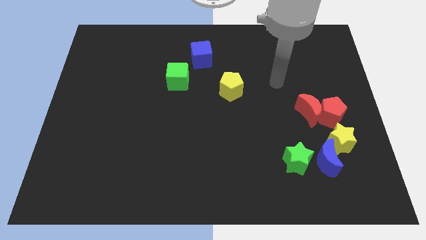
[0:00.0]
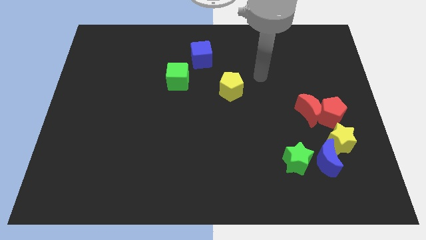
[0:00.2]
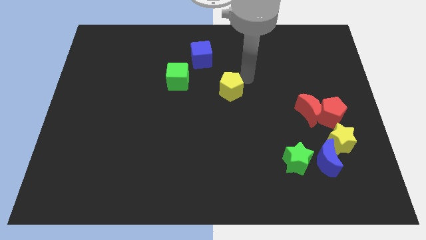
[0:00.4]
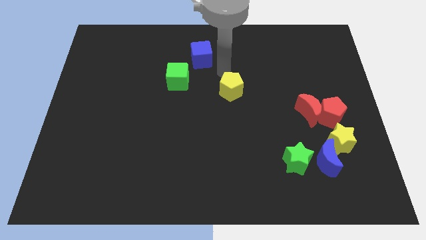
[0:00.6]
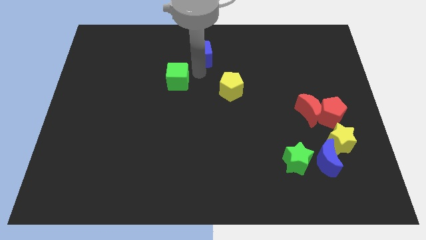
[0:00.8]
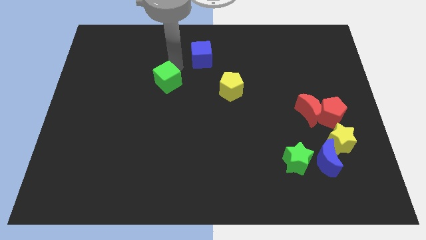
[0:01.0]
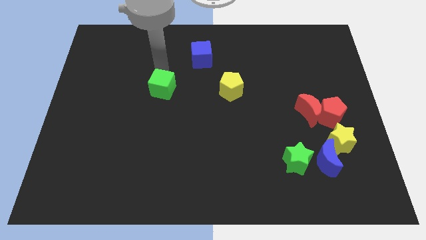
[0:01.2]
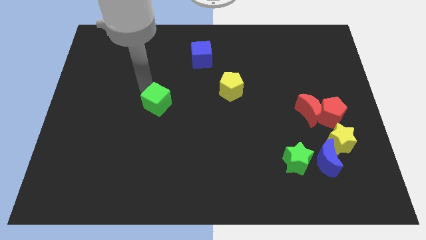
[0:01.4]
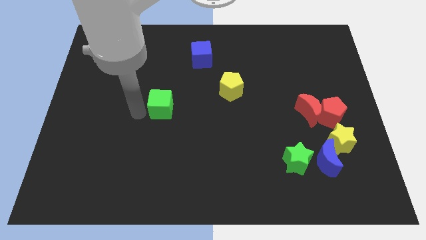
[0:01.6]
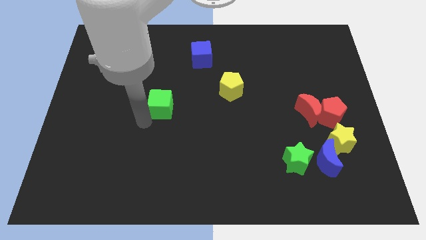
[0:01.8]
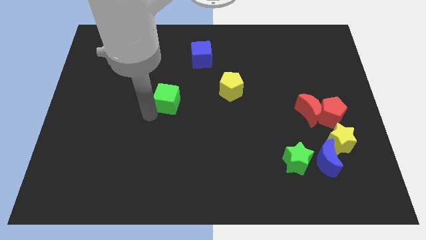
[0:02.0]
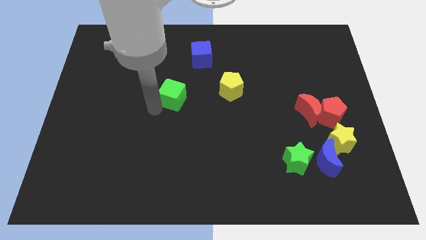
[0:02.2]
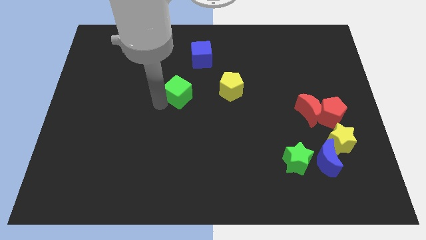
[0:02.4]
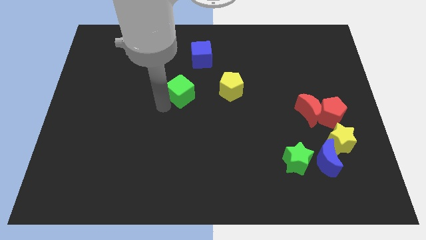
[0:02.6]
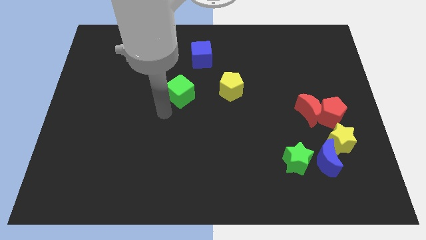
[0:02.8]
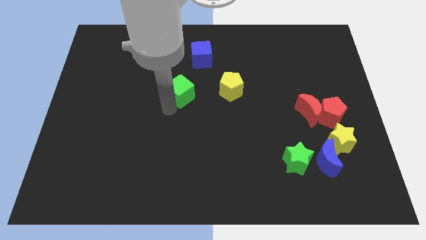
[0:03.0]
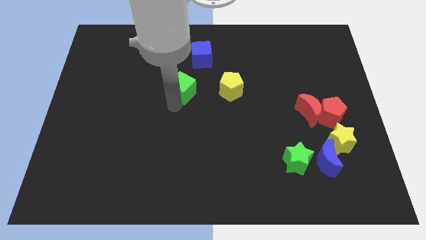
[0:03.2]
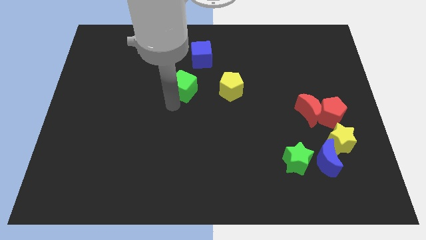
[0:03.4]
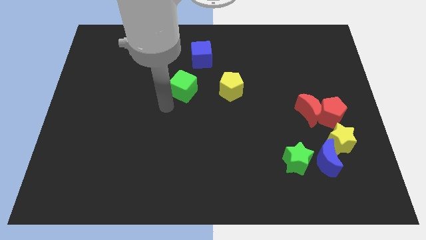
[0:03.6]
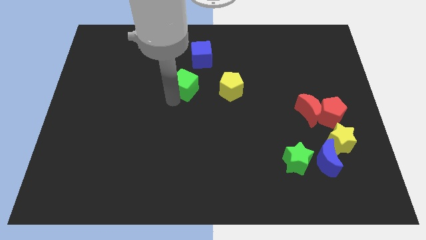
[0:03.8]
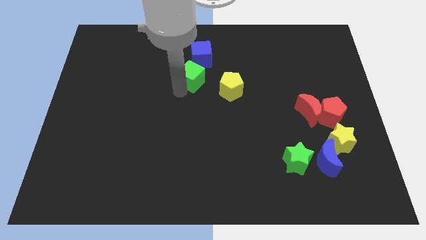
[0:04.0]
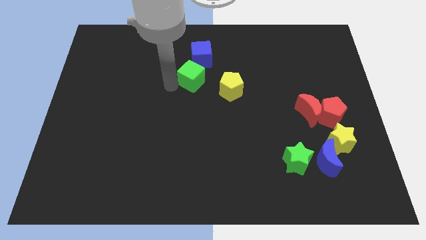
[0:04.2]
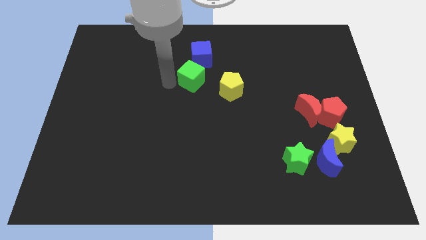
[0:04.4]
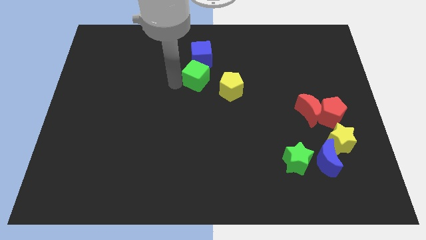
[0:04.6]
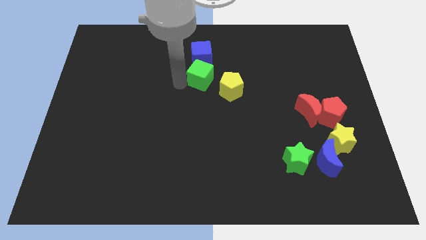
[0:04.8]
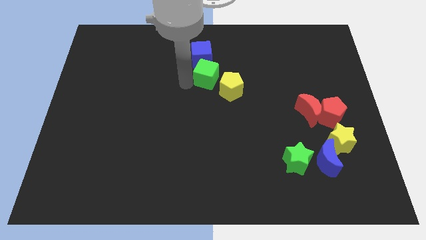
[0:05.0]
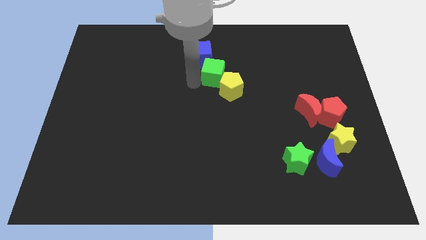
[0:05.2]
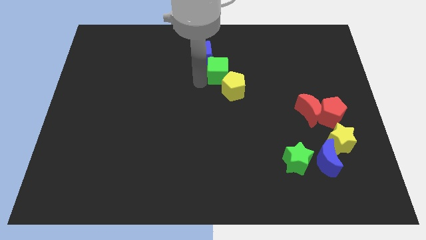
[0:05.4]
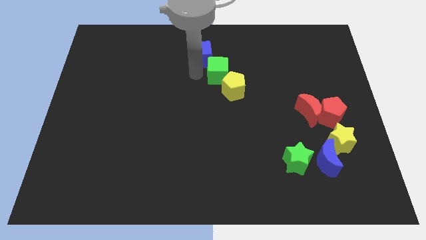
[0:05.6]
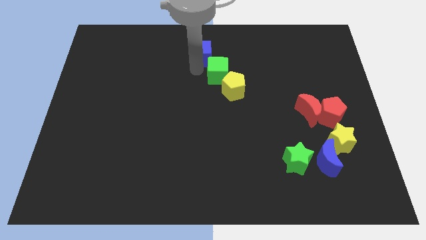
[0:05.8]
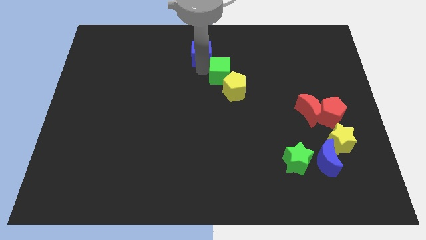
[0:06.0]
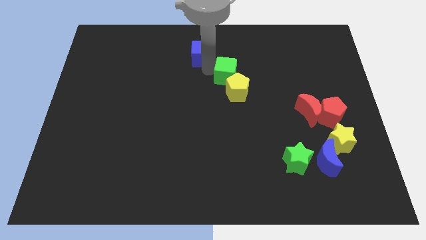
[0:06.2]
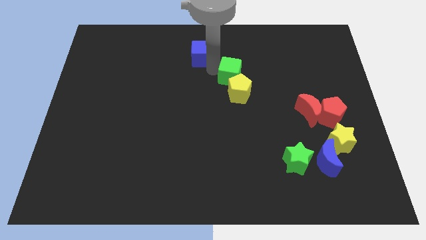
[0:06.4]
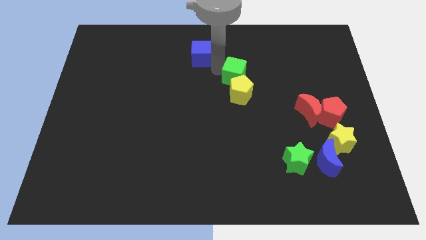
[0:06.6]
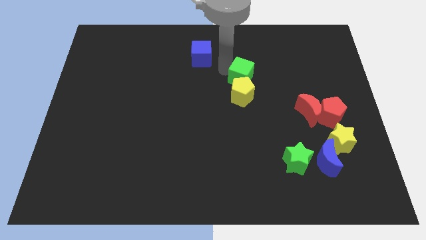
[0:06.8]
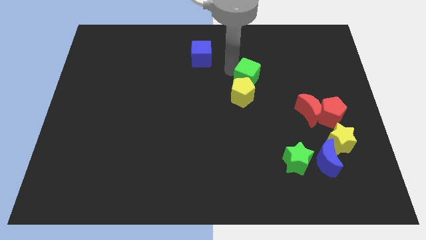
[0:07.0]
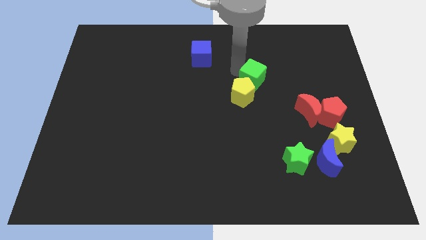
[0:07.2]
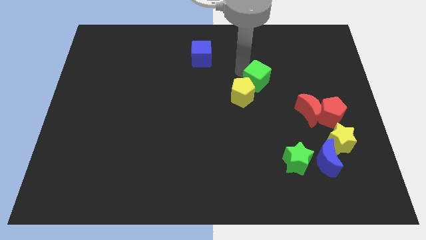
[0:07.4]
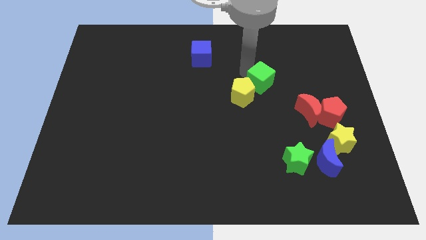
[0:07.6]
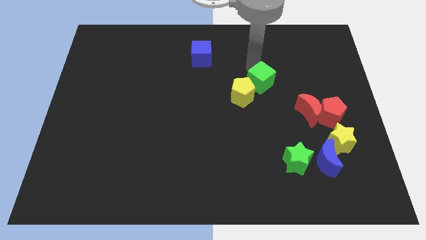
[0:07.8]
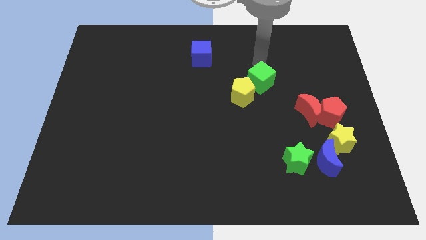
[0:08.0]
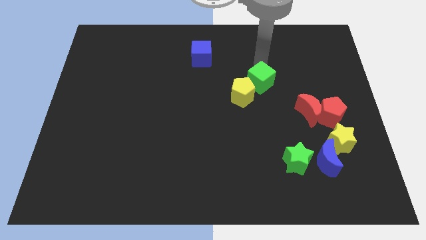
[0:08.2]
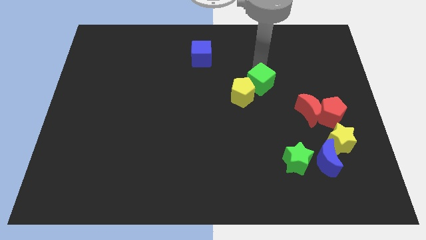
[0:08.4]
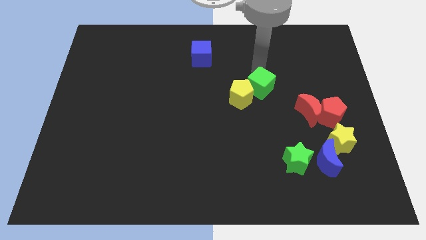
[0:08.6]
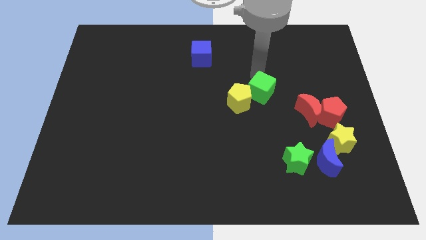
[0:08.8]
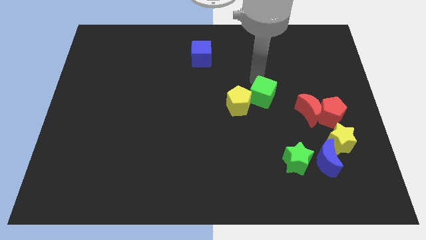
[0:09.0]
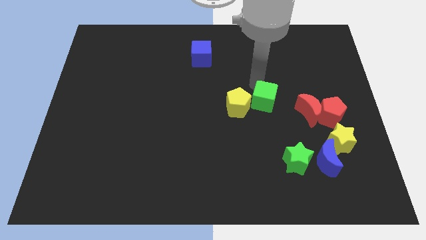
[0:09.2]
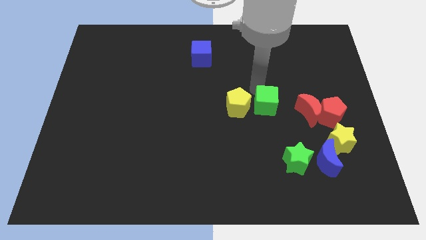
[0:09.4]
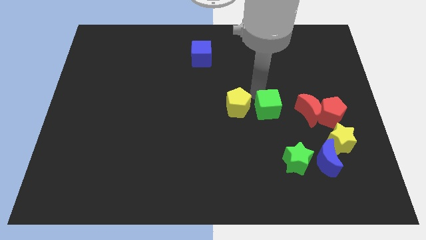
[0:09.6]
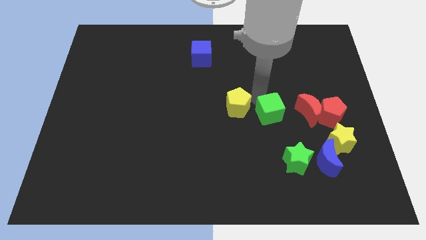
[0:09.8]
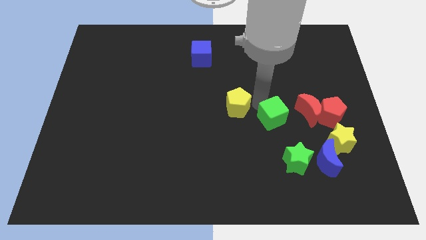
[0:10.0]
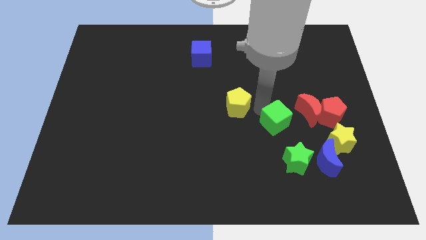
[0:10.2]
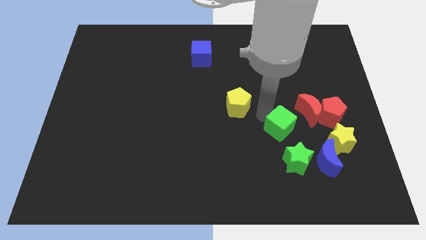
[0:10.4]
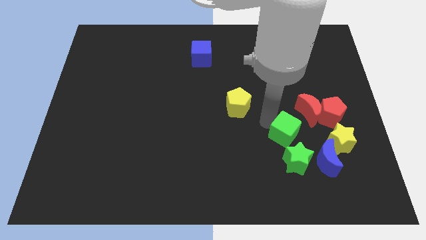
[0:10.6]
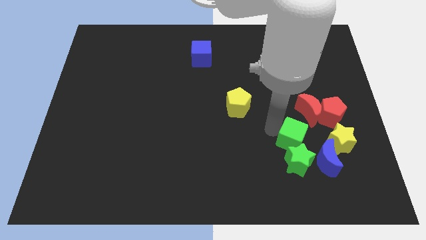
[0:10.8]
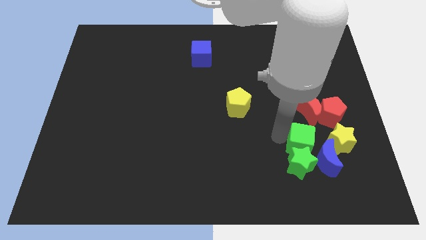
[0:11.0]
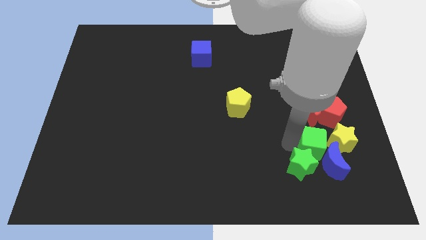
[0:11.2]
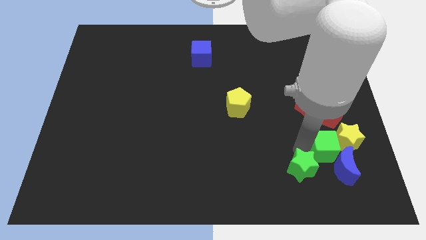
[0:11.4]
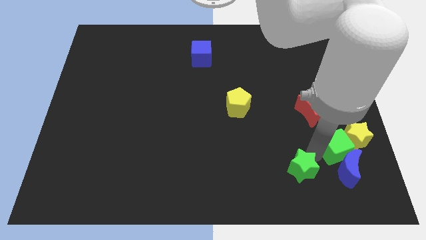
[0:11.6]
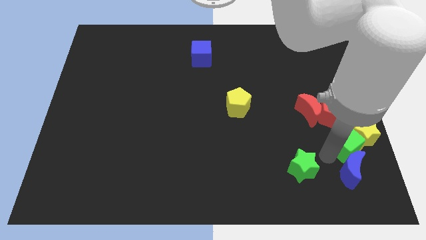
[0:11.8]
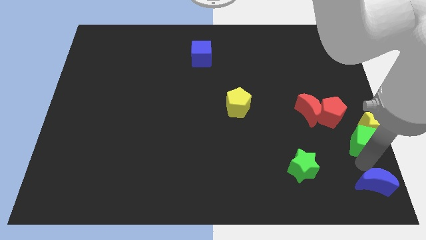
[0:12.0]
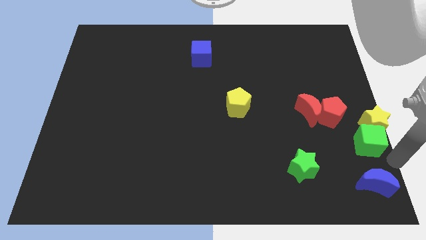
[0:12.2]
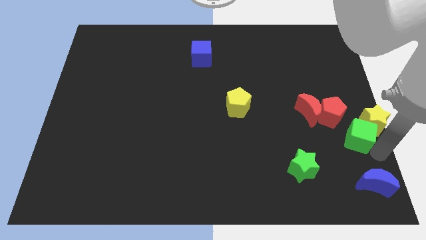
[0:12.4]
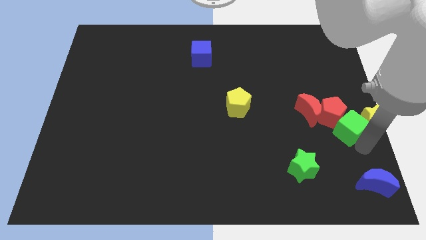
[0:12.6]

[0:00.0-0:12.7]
slide the green cube towards the red pentagon

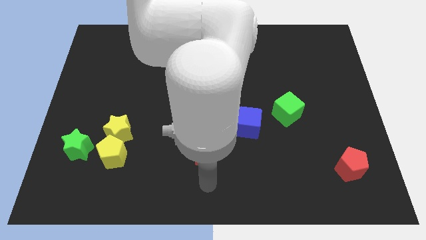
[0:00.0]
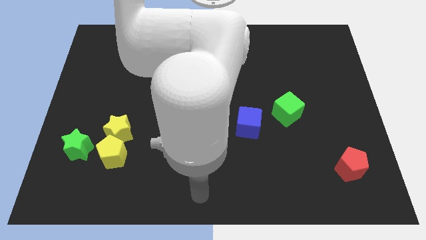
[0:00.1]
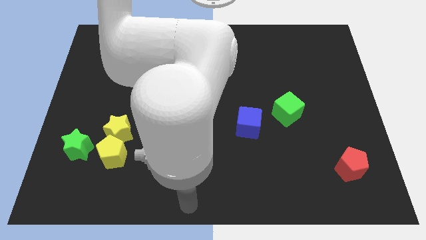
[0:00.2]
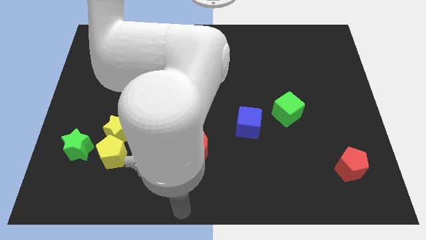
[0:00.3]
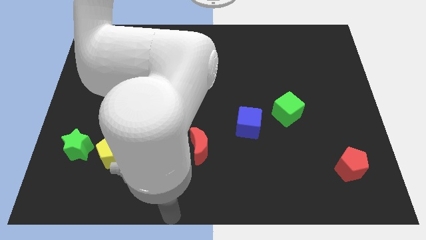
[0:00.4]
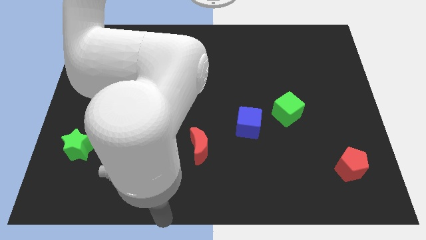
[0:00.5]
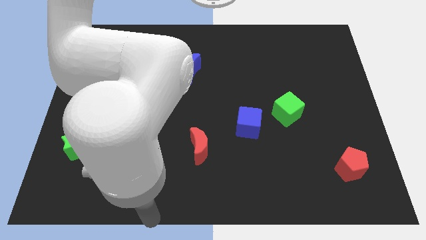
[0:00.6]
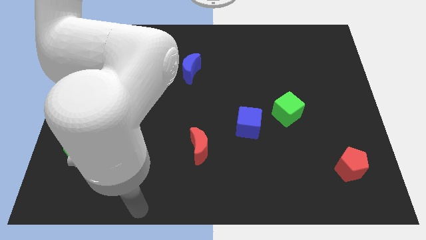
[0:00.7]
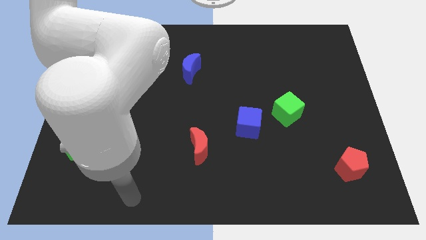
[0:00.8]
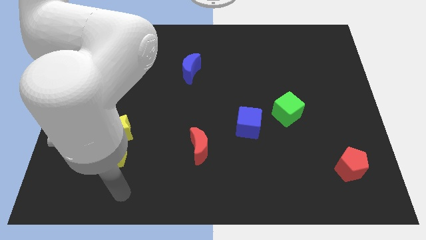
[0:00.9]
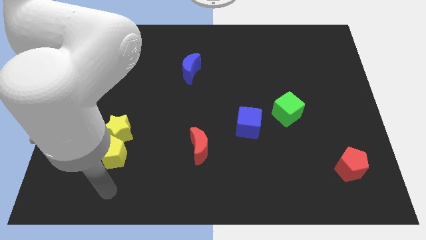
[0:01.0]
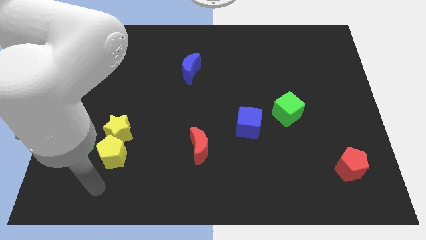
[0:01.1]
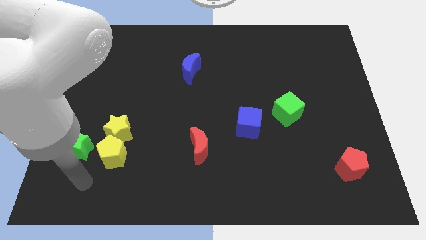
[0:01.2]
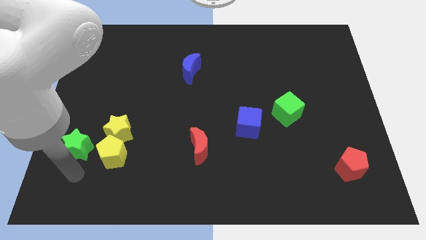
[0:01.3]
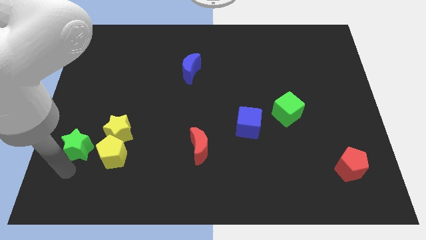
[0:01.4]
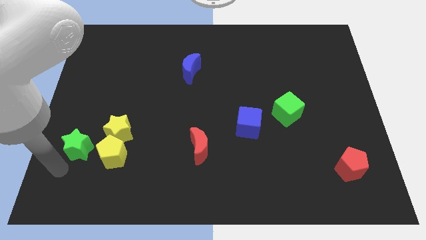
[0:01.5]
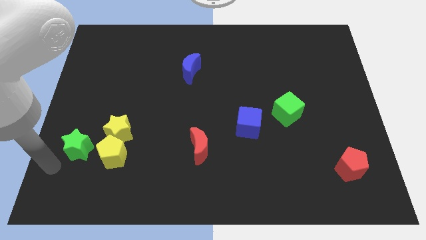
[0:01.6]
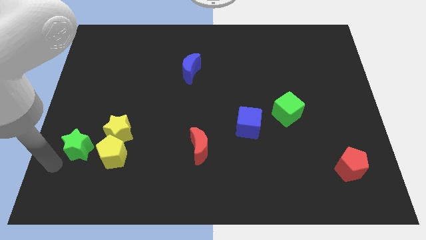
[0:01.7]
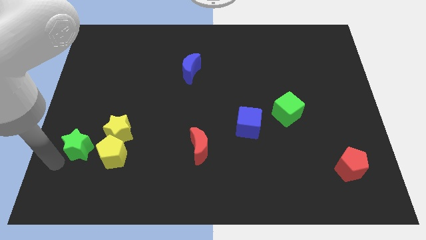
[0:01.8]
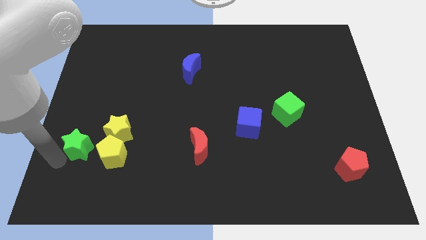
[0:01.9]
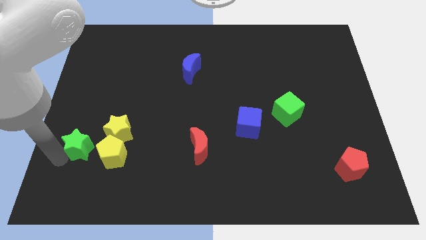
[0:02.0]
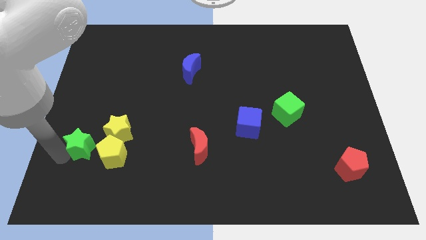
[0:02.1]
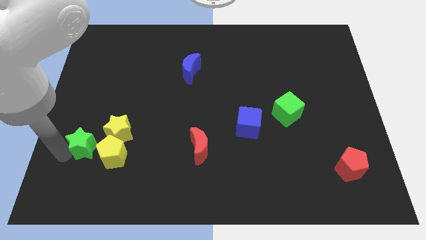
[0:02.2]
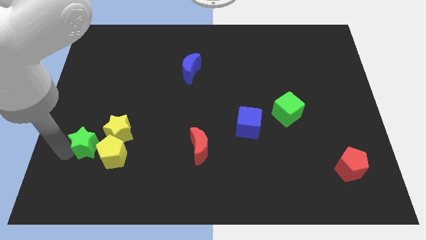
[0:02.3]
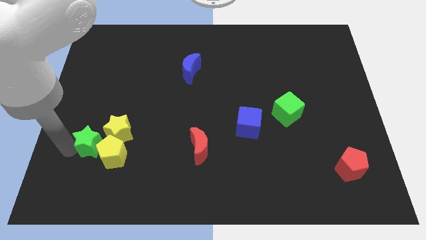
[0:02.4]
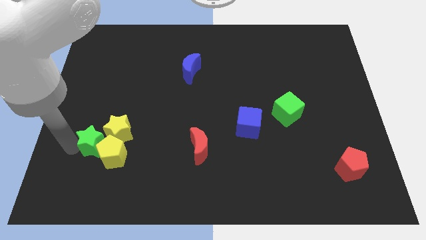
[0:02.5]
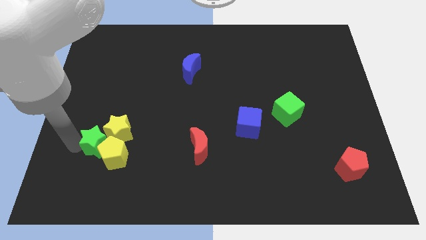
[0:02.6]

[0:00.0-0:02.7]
put the green star towards the yellow star
